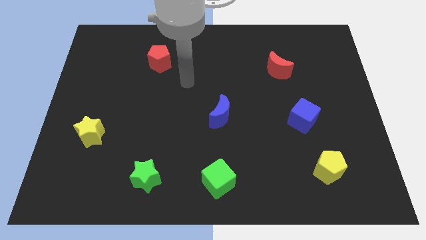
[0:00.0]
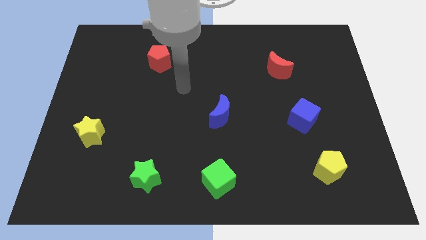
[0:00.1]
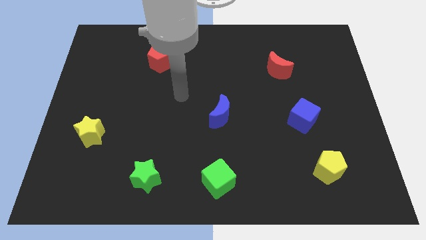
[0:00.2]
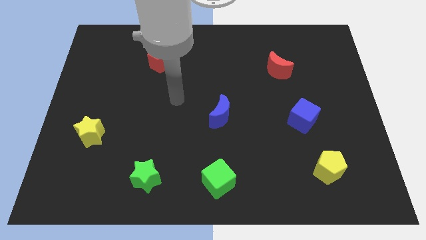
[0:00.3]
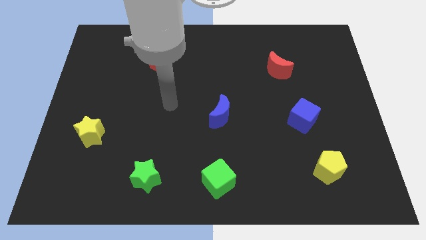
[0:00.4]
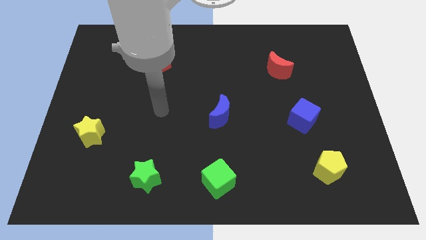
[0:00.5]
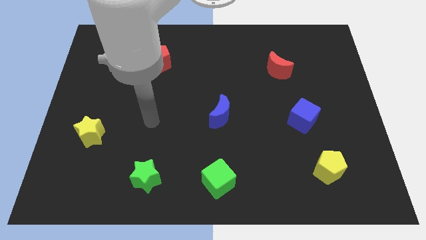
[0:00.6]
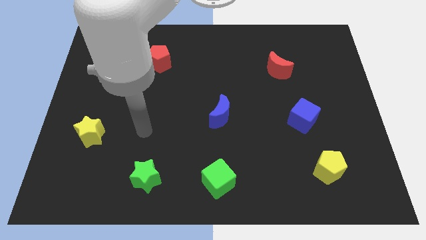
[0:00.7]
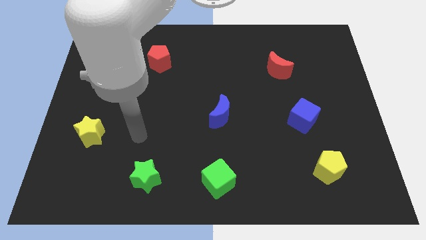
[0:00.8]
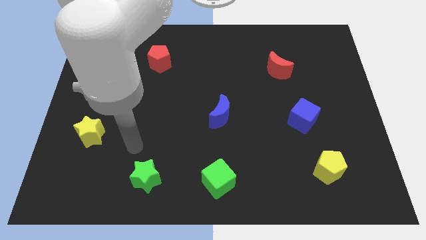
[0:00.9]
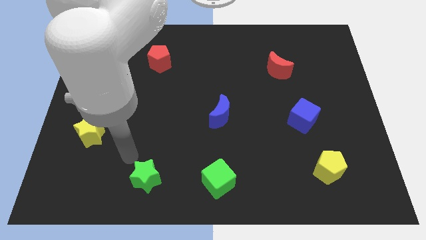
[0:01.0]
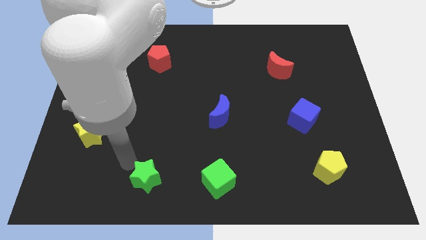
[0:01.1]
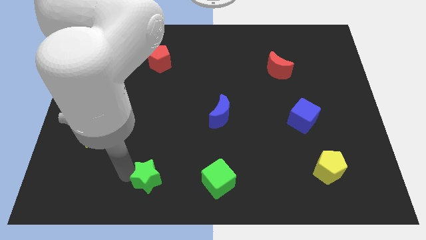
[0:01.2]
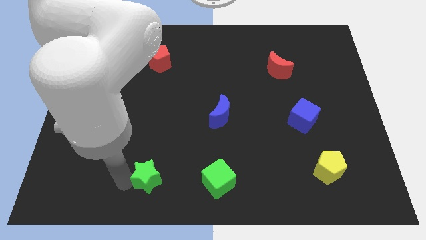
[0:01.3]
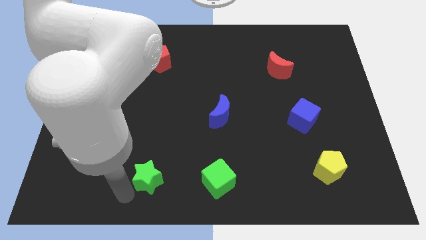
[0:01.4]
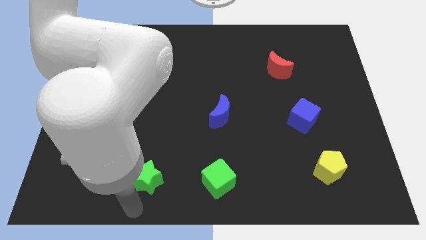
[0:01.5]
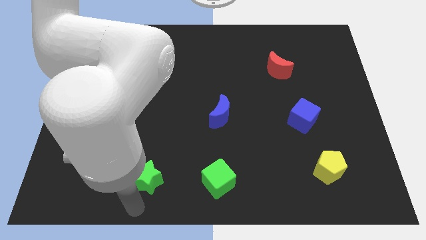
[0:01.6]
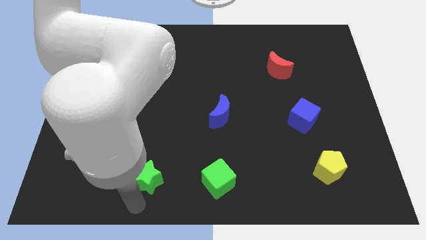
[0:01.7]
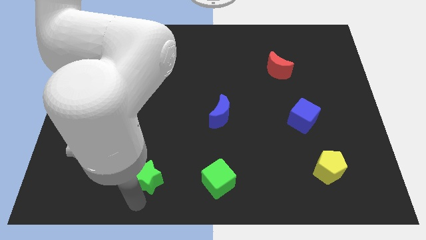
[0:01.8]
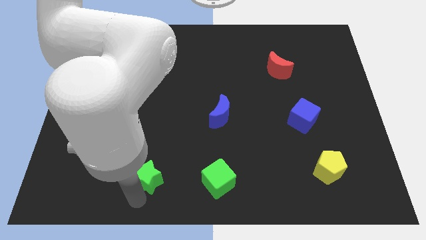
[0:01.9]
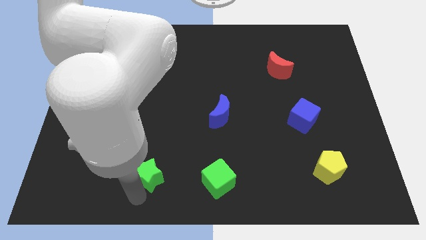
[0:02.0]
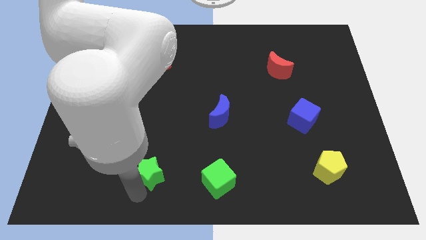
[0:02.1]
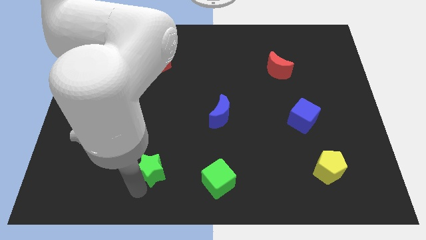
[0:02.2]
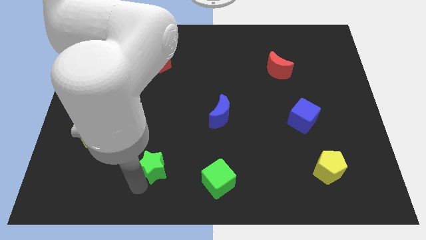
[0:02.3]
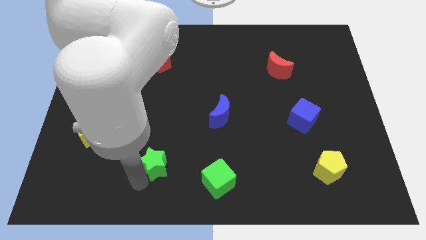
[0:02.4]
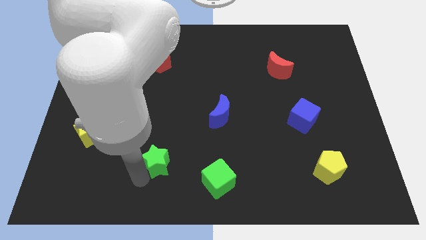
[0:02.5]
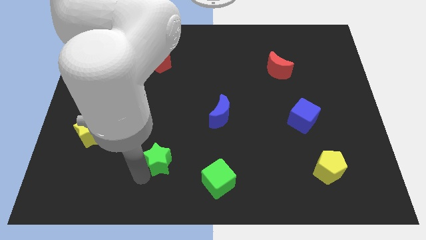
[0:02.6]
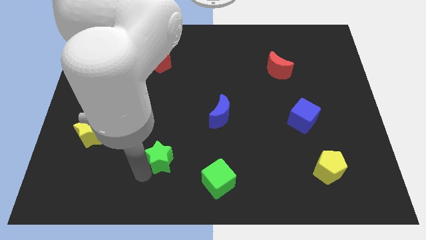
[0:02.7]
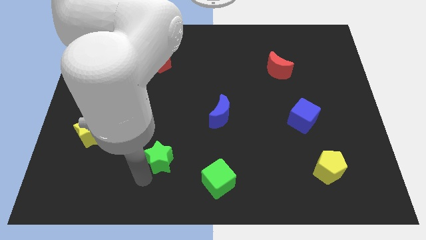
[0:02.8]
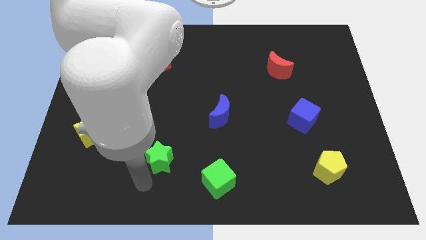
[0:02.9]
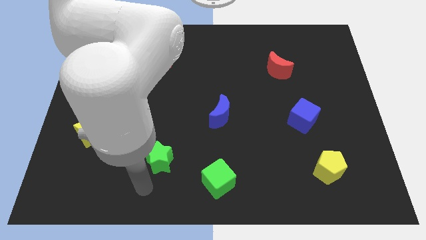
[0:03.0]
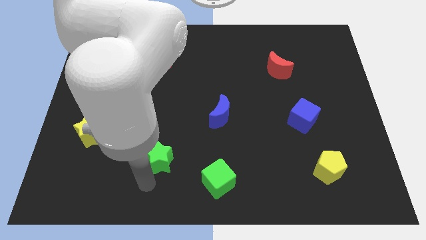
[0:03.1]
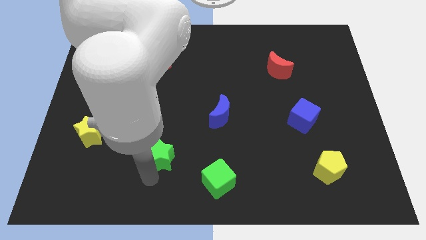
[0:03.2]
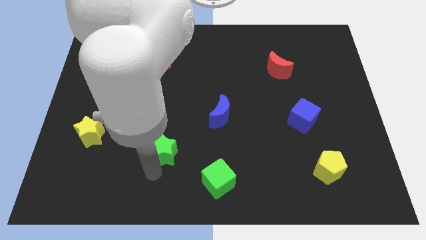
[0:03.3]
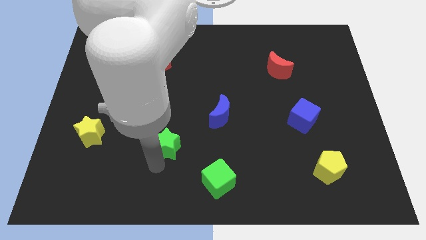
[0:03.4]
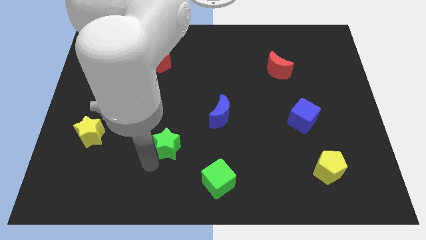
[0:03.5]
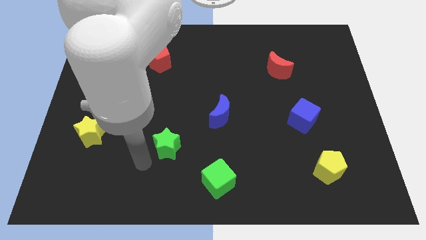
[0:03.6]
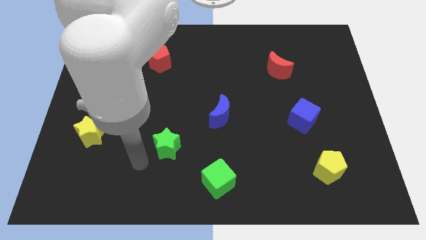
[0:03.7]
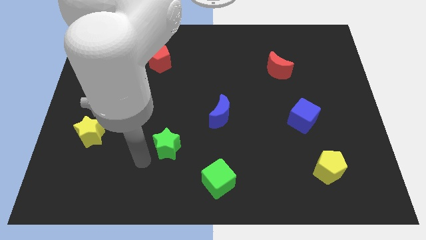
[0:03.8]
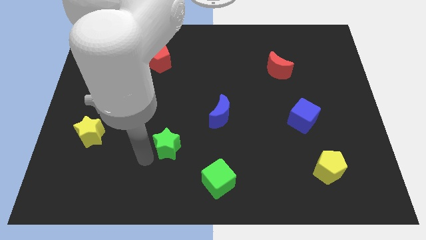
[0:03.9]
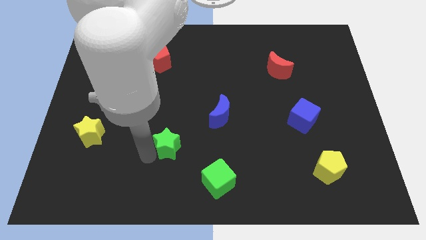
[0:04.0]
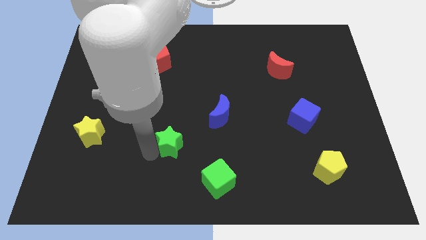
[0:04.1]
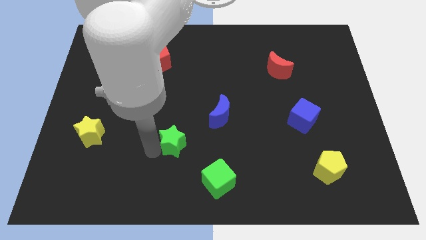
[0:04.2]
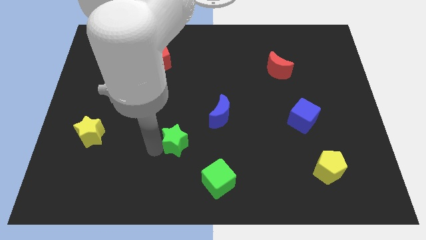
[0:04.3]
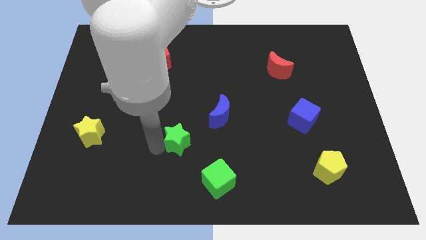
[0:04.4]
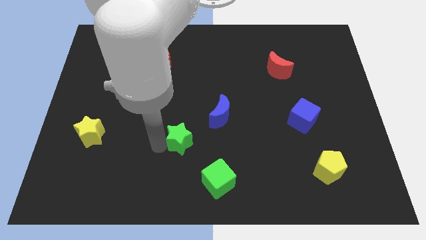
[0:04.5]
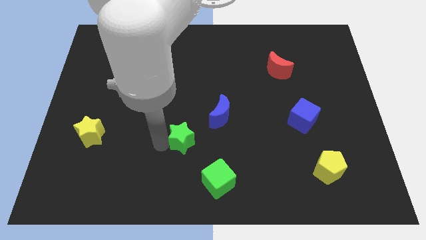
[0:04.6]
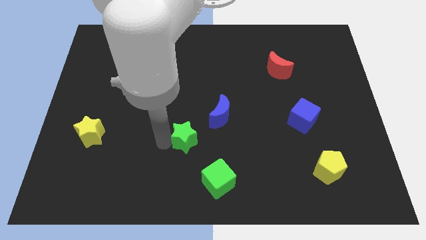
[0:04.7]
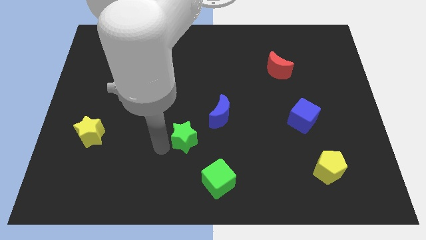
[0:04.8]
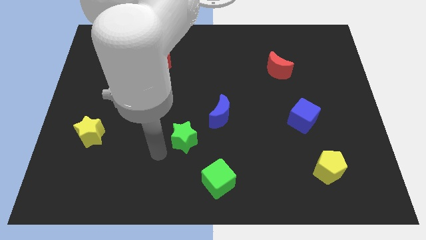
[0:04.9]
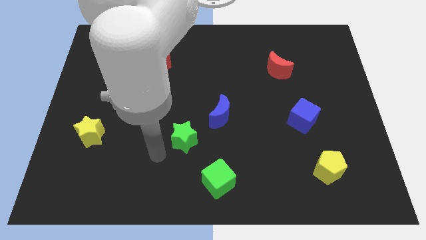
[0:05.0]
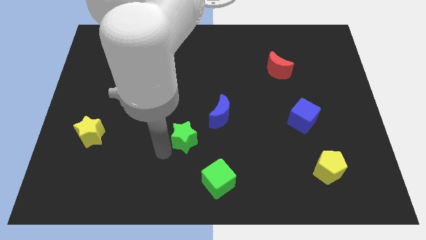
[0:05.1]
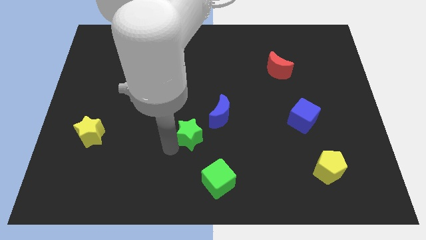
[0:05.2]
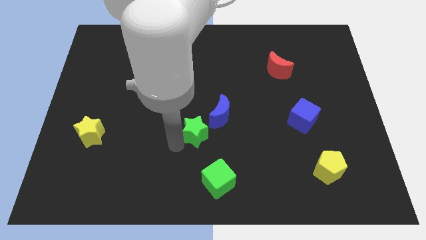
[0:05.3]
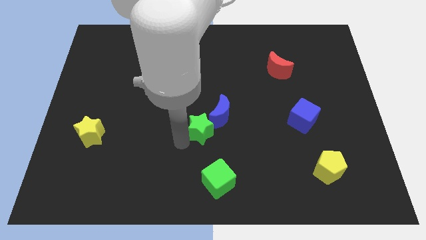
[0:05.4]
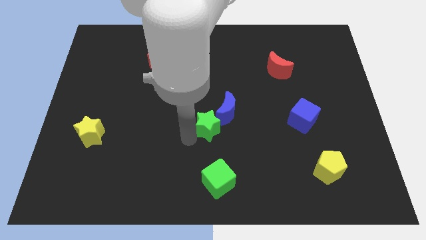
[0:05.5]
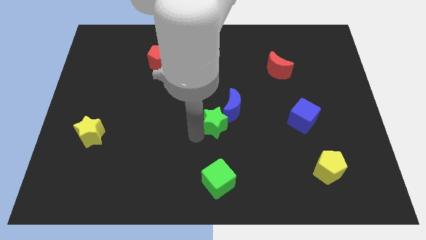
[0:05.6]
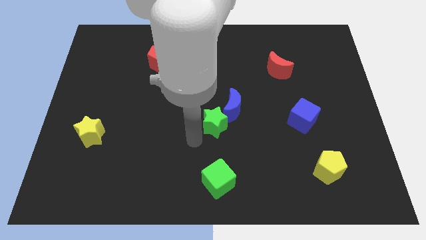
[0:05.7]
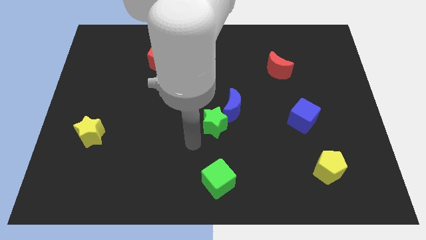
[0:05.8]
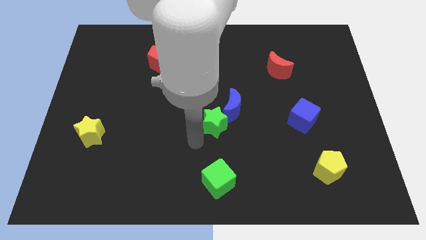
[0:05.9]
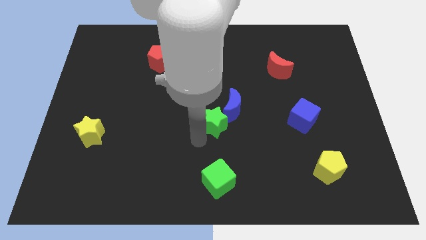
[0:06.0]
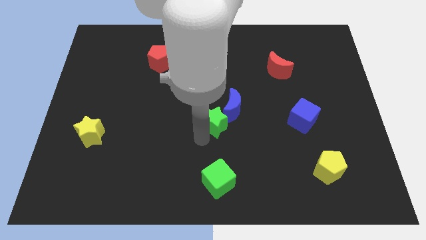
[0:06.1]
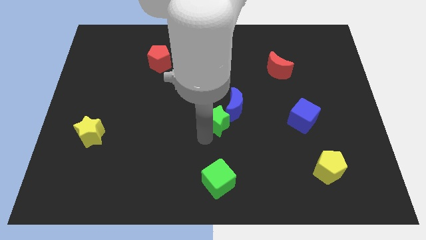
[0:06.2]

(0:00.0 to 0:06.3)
slide the green star to the blue moon
